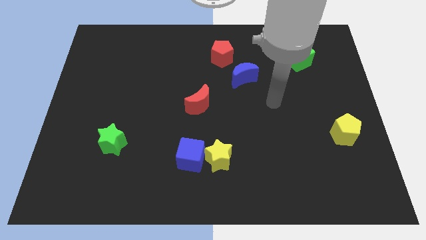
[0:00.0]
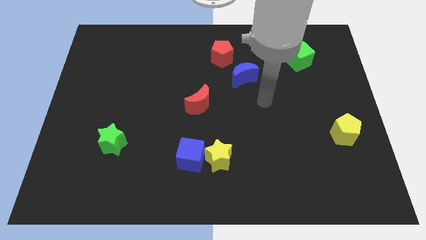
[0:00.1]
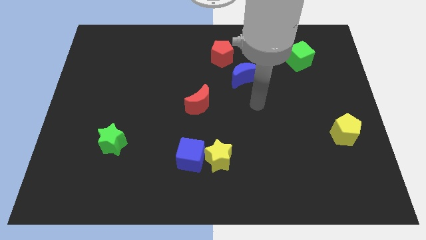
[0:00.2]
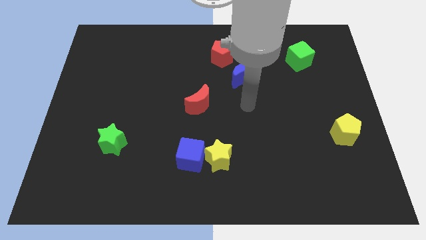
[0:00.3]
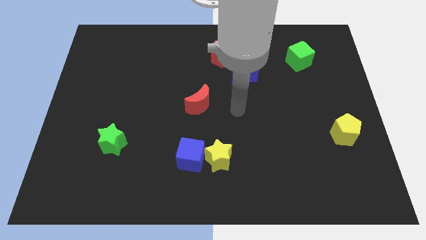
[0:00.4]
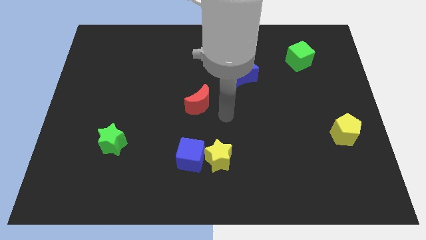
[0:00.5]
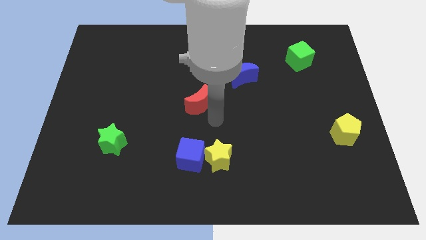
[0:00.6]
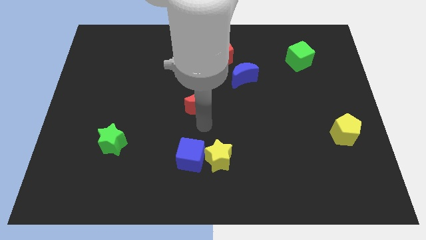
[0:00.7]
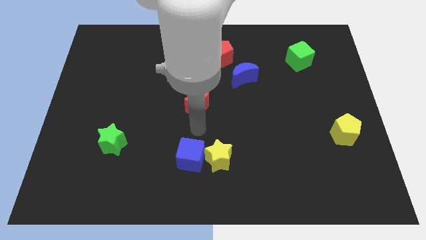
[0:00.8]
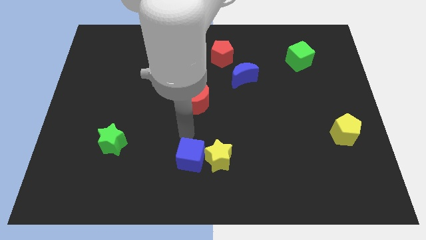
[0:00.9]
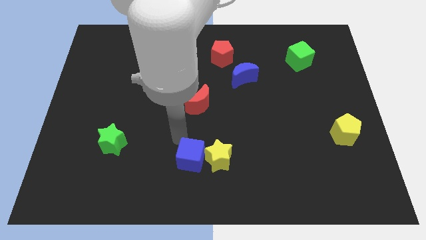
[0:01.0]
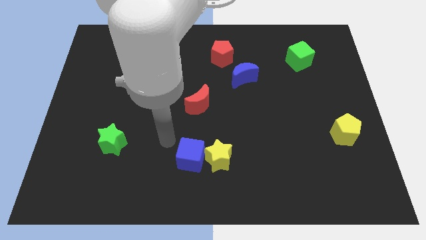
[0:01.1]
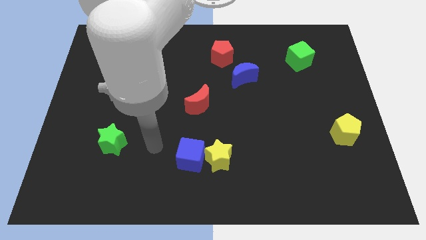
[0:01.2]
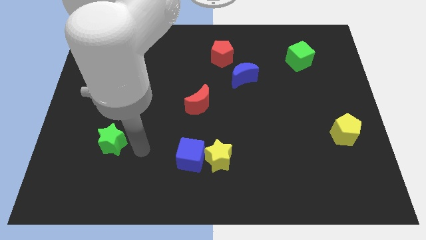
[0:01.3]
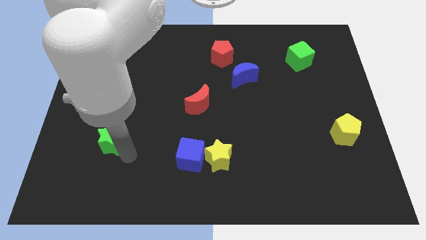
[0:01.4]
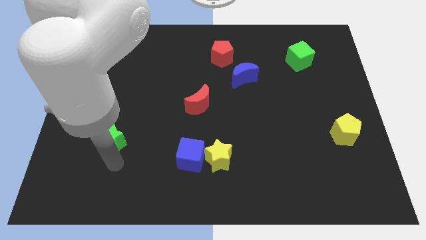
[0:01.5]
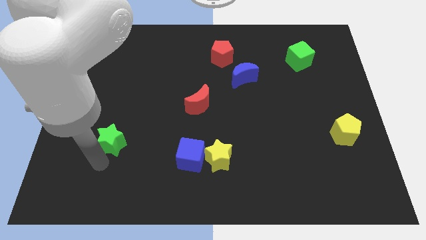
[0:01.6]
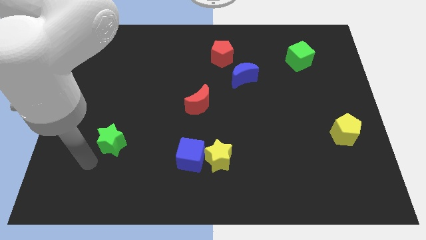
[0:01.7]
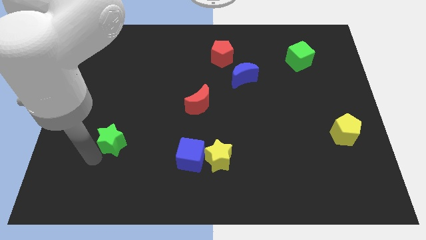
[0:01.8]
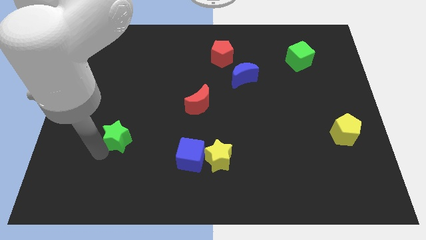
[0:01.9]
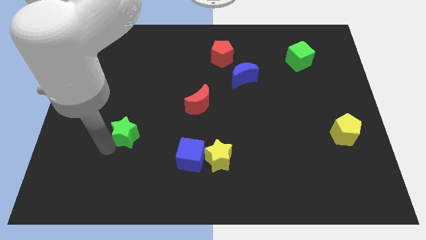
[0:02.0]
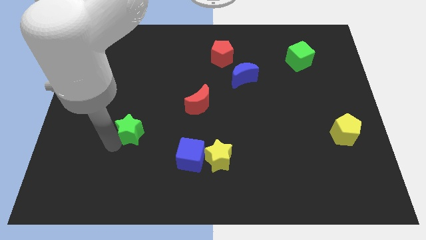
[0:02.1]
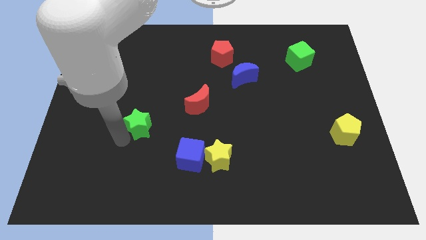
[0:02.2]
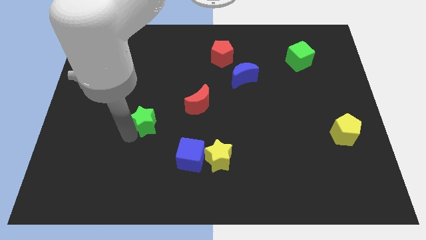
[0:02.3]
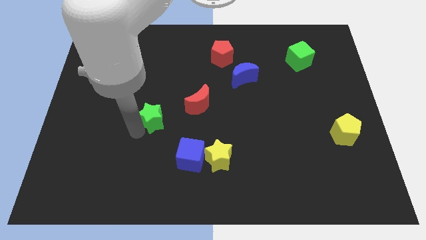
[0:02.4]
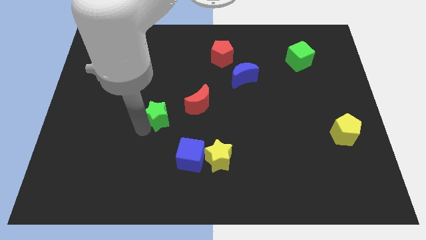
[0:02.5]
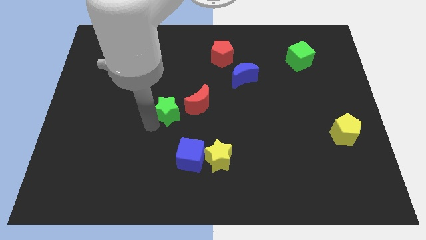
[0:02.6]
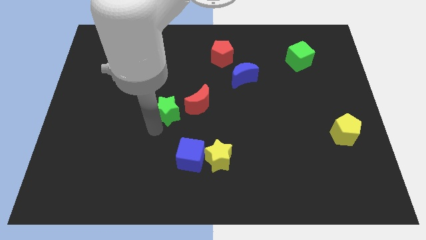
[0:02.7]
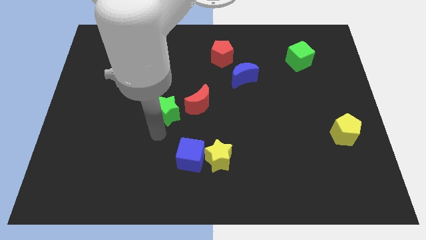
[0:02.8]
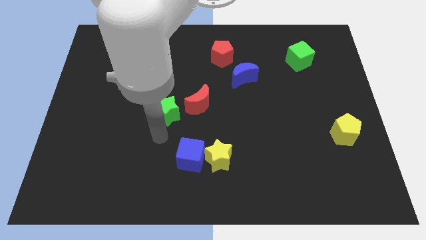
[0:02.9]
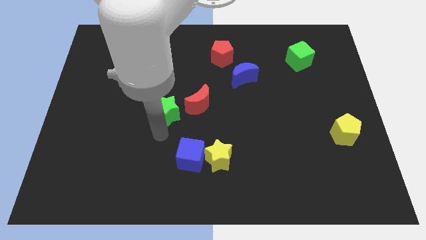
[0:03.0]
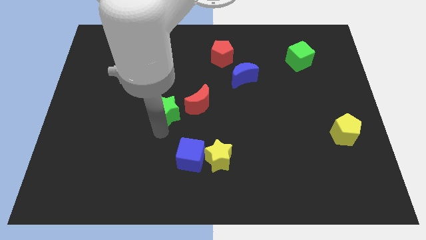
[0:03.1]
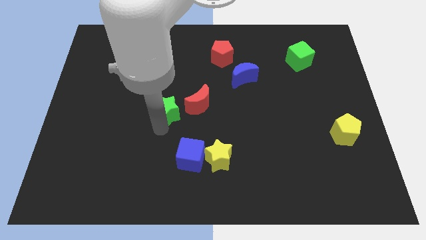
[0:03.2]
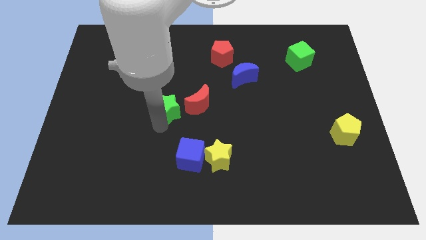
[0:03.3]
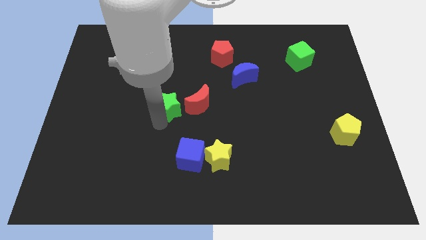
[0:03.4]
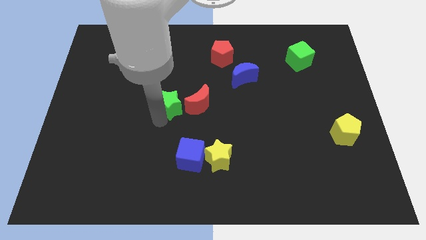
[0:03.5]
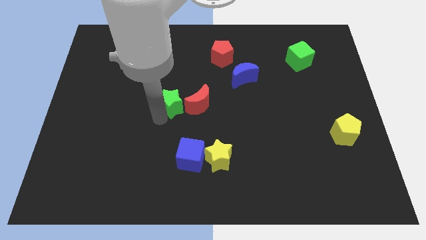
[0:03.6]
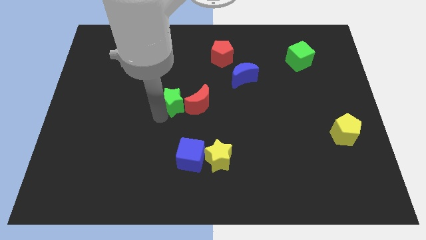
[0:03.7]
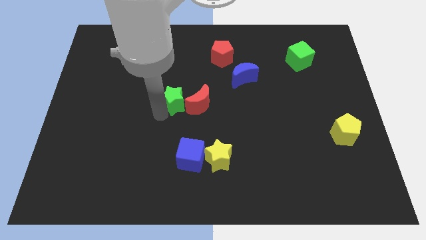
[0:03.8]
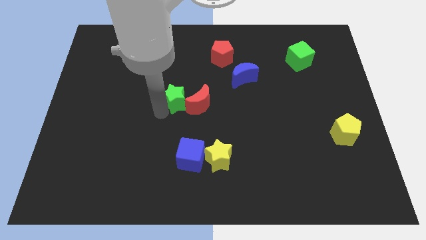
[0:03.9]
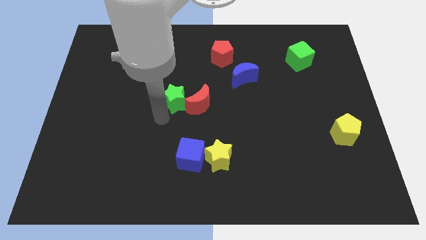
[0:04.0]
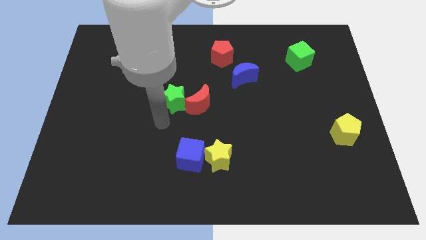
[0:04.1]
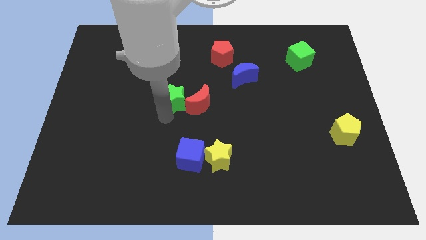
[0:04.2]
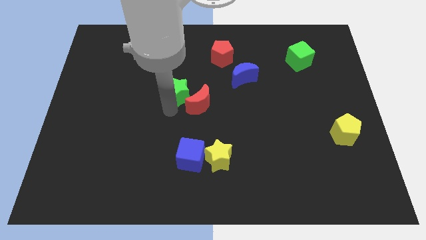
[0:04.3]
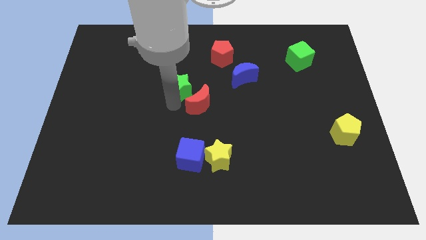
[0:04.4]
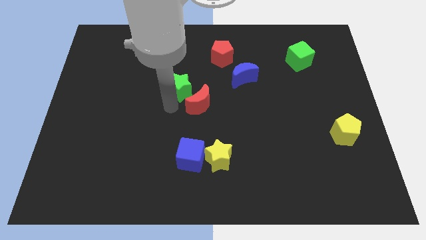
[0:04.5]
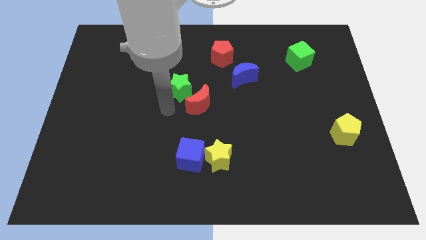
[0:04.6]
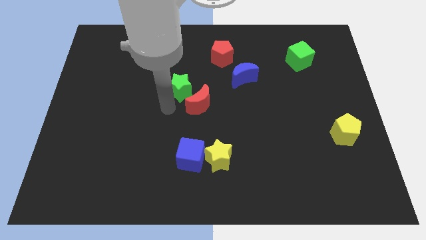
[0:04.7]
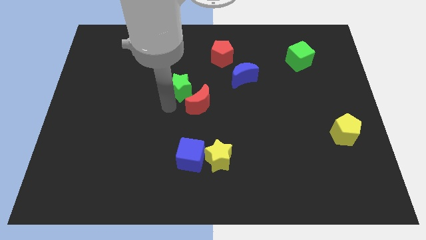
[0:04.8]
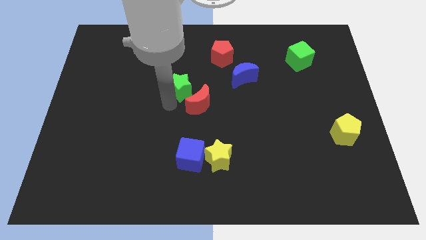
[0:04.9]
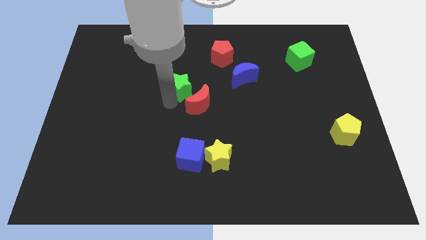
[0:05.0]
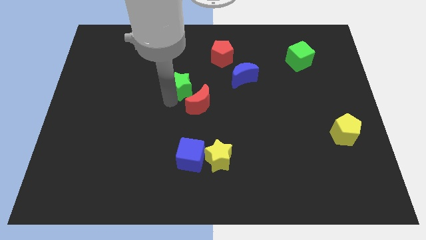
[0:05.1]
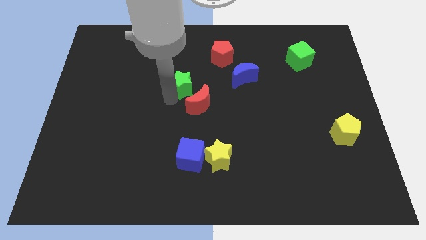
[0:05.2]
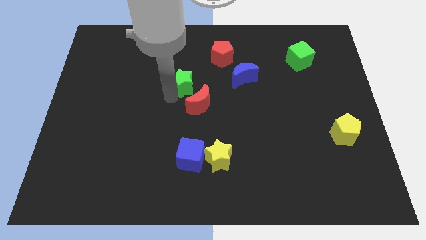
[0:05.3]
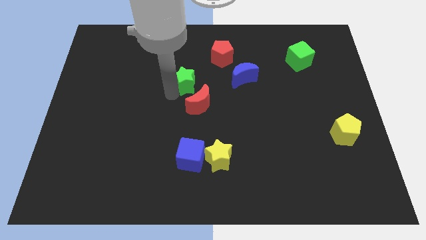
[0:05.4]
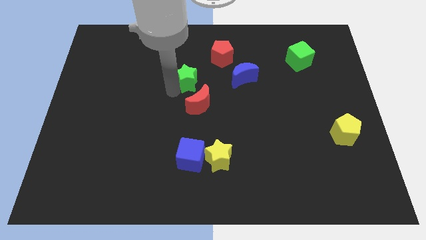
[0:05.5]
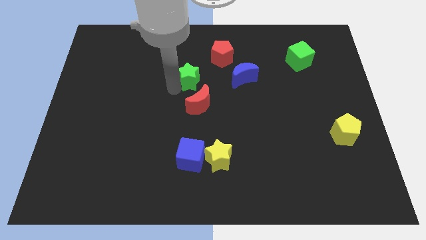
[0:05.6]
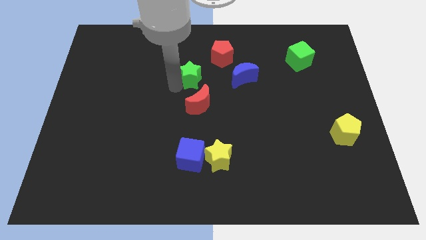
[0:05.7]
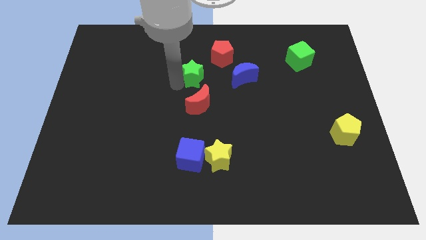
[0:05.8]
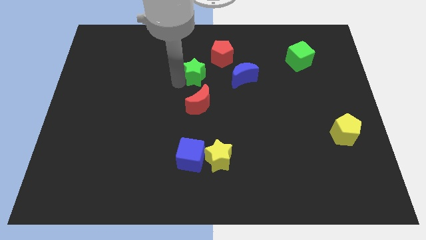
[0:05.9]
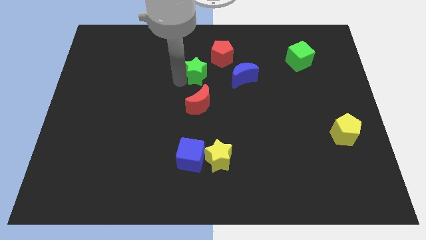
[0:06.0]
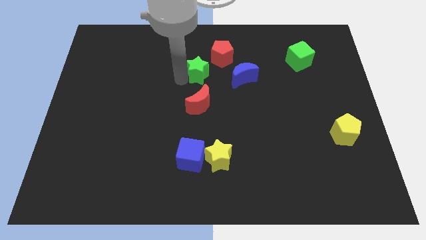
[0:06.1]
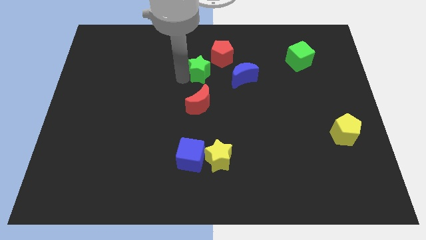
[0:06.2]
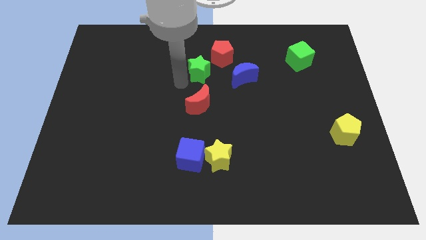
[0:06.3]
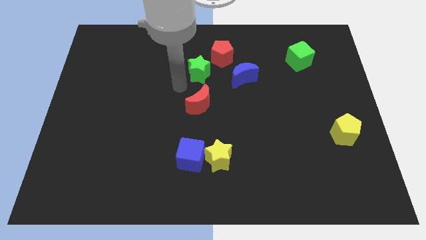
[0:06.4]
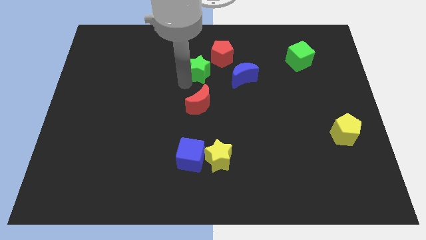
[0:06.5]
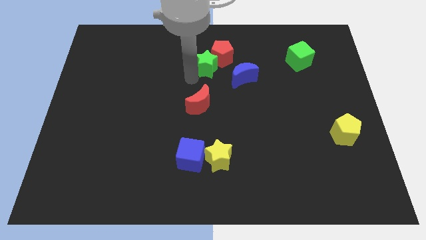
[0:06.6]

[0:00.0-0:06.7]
move the green star next to the red pentagon
